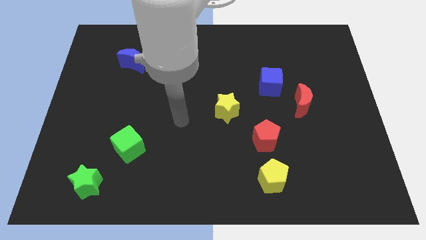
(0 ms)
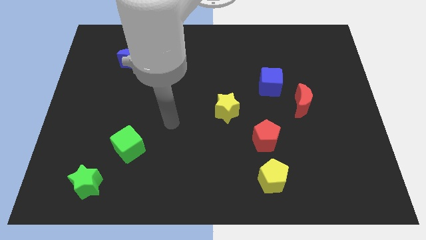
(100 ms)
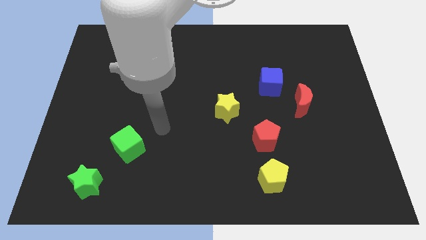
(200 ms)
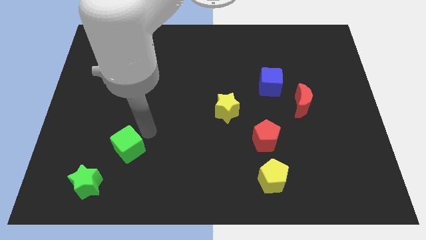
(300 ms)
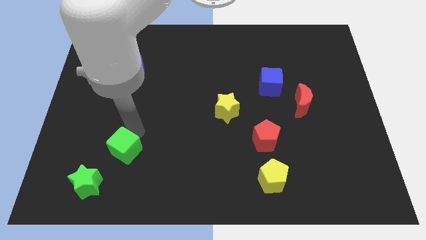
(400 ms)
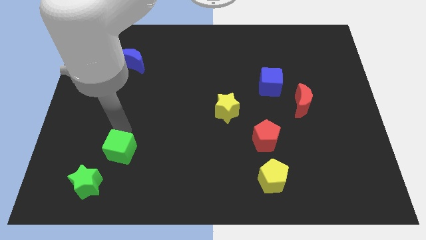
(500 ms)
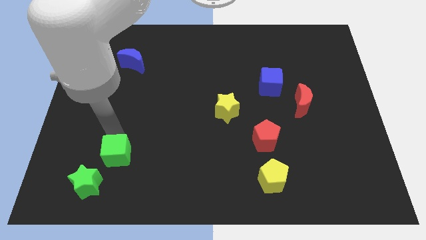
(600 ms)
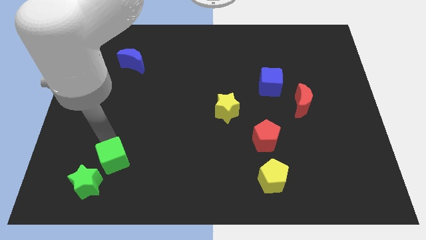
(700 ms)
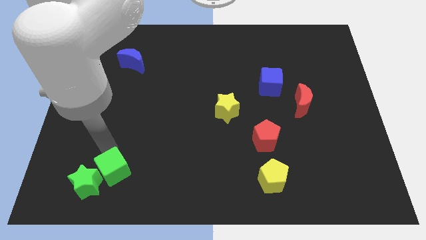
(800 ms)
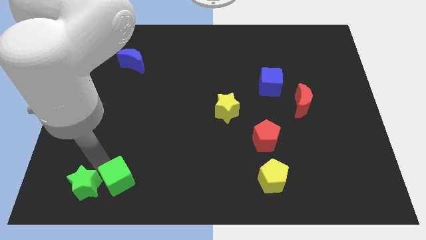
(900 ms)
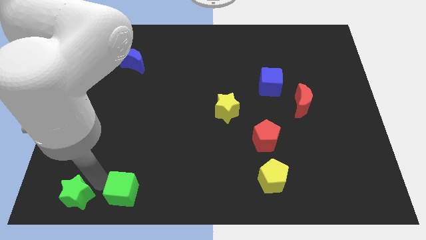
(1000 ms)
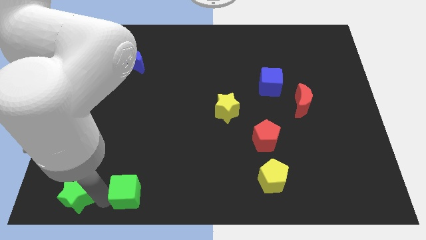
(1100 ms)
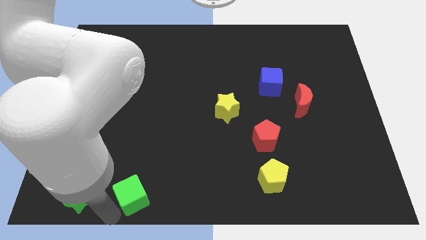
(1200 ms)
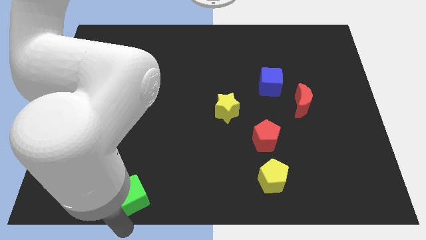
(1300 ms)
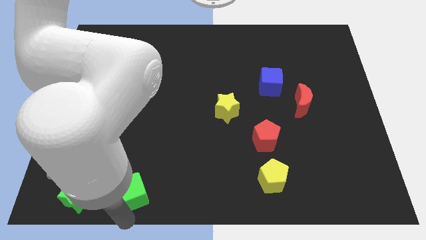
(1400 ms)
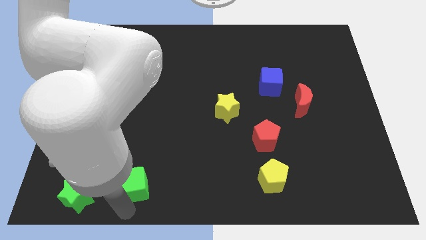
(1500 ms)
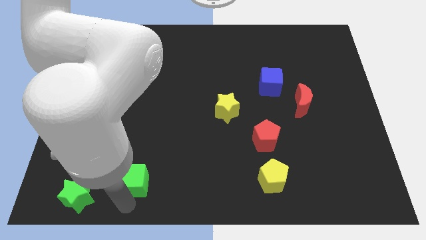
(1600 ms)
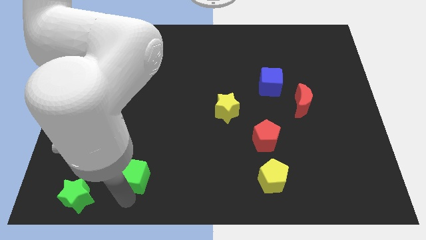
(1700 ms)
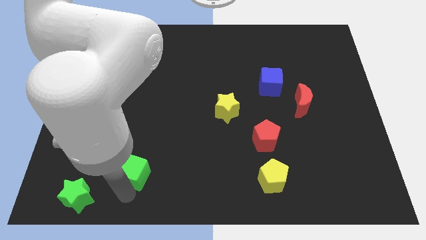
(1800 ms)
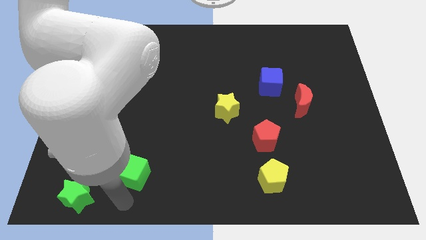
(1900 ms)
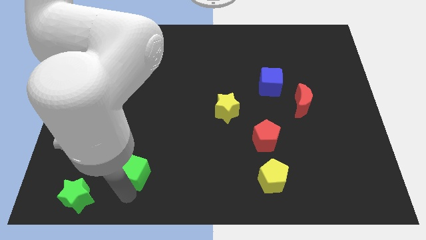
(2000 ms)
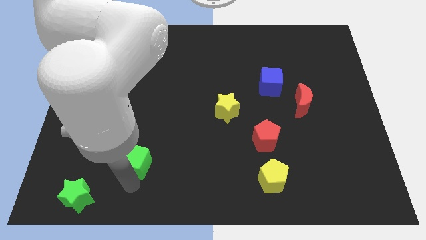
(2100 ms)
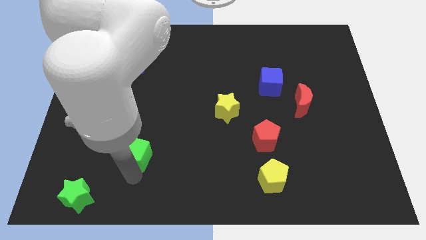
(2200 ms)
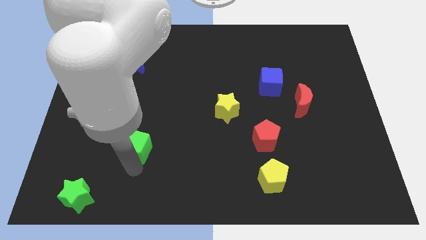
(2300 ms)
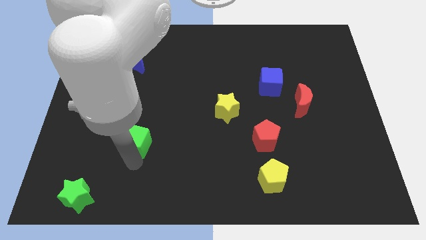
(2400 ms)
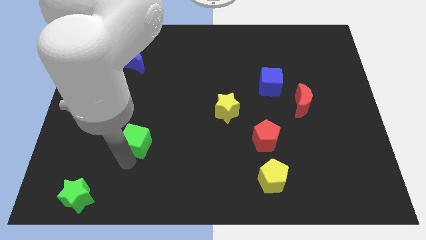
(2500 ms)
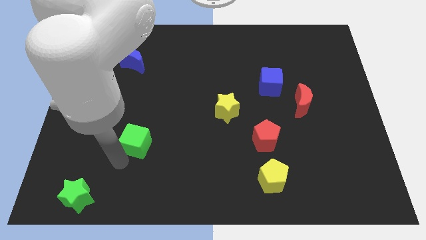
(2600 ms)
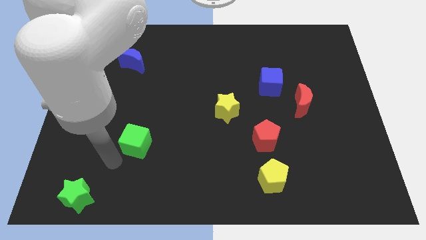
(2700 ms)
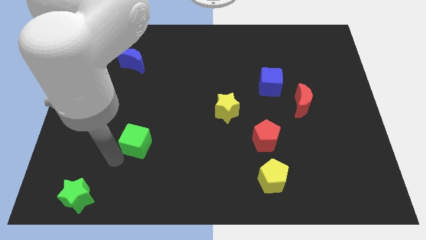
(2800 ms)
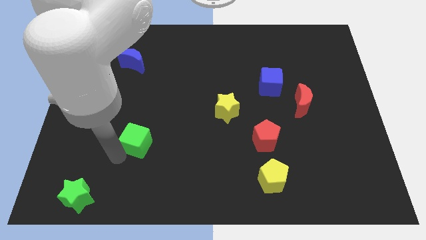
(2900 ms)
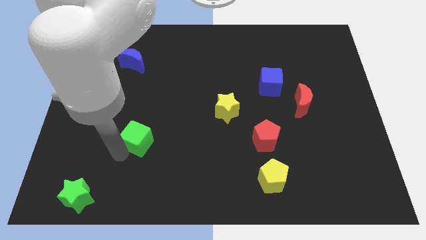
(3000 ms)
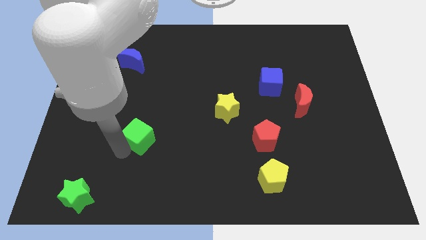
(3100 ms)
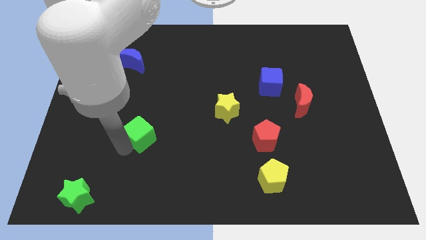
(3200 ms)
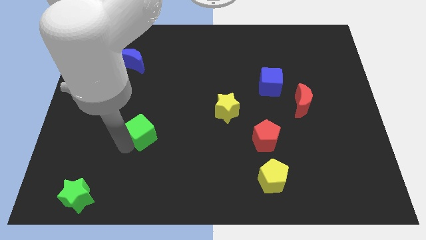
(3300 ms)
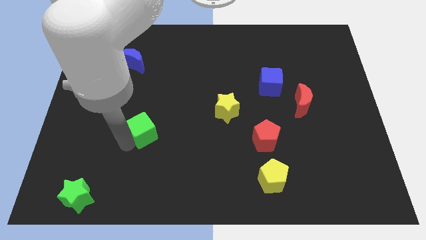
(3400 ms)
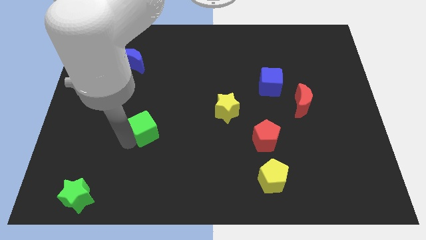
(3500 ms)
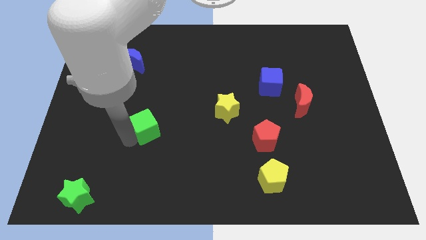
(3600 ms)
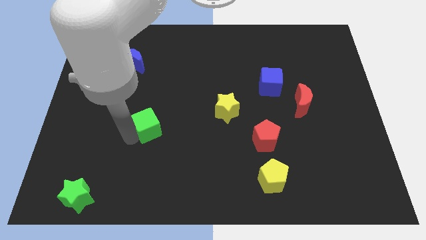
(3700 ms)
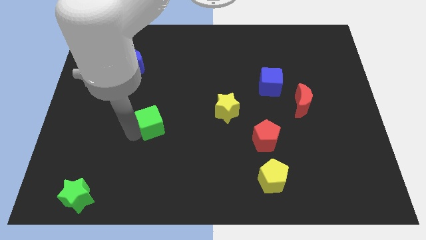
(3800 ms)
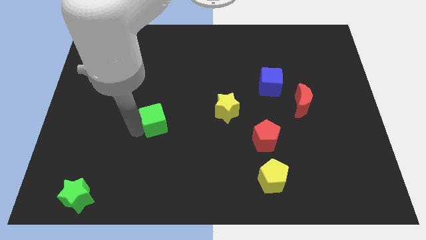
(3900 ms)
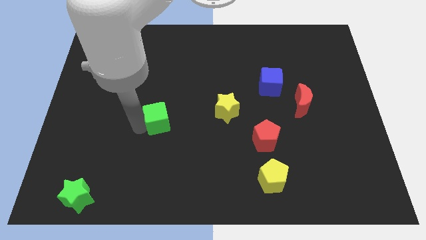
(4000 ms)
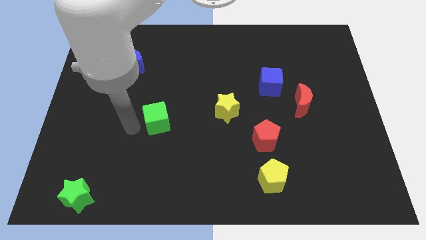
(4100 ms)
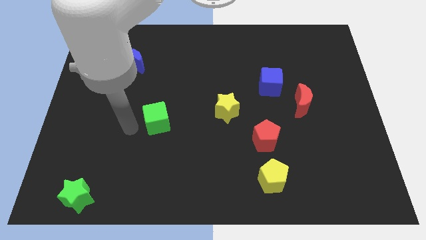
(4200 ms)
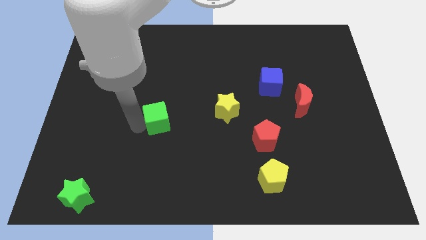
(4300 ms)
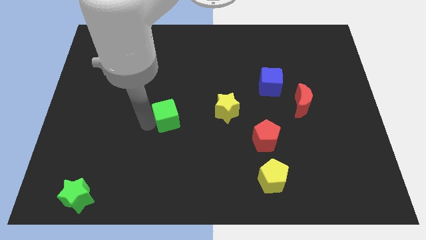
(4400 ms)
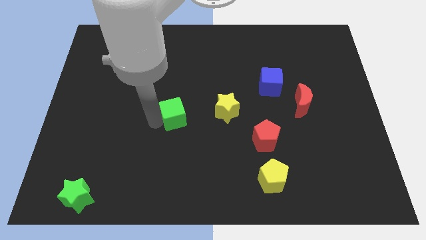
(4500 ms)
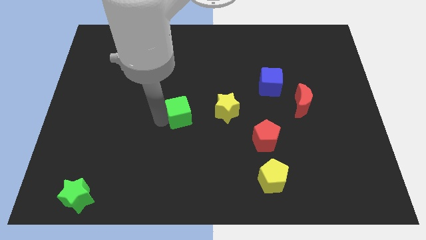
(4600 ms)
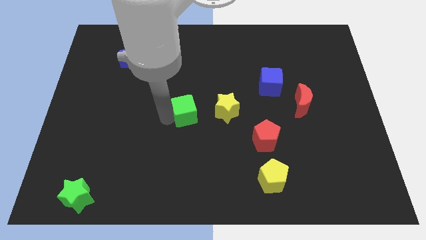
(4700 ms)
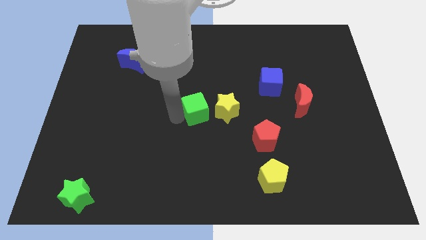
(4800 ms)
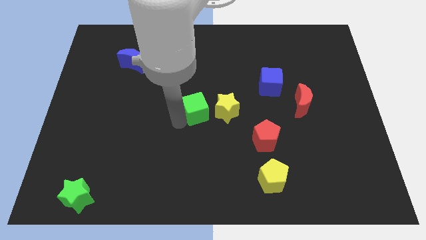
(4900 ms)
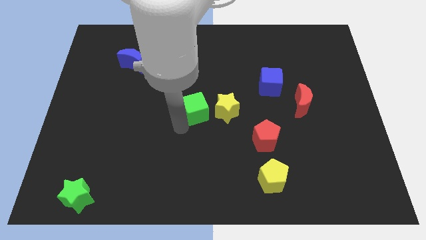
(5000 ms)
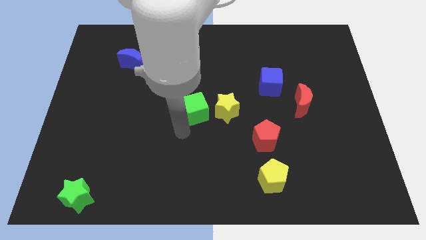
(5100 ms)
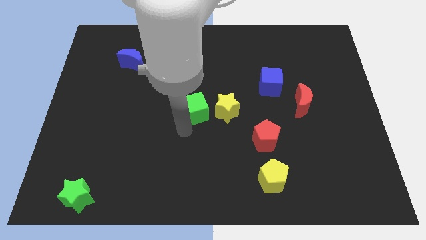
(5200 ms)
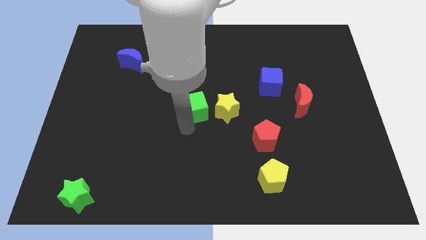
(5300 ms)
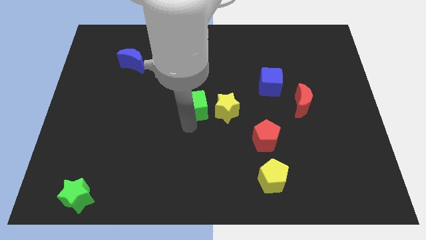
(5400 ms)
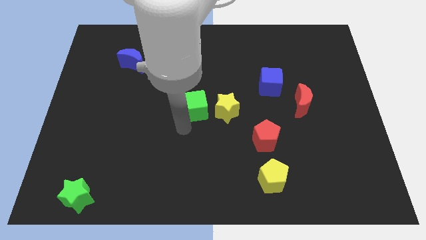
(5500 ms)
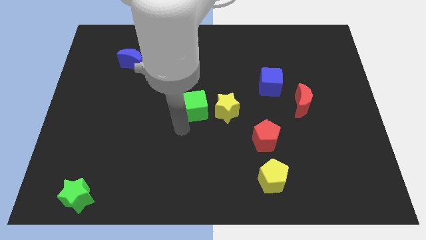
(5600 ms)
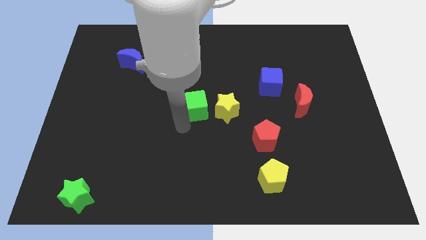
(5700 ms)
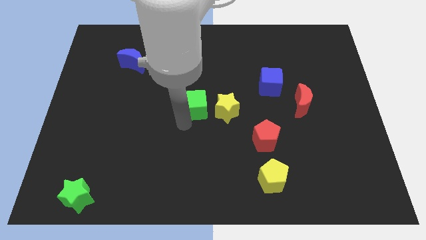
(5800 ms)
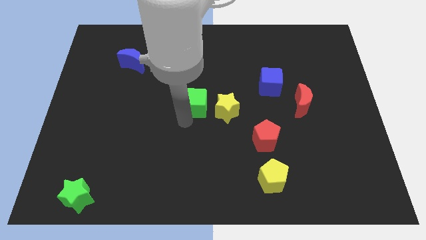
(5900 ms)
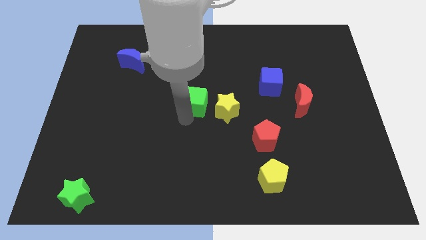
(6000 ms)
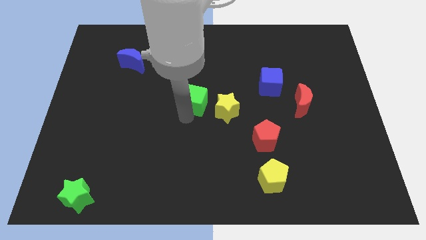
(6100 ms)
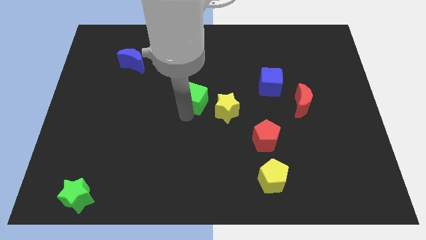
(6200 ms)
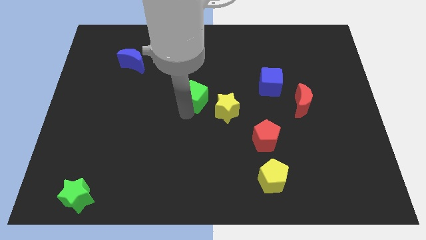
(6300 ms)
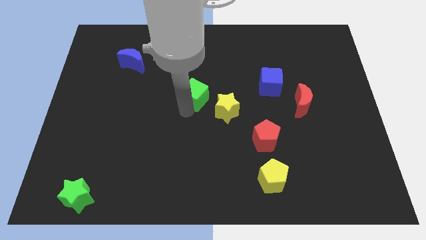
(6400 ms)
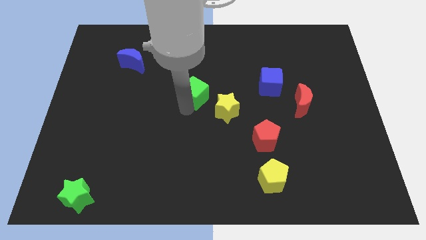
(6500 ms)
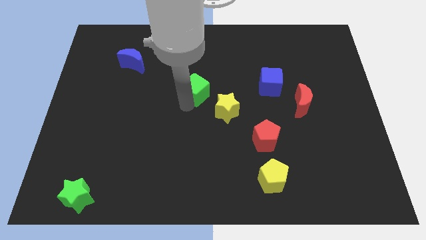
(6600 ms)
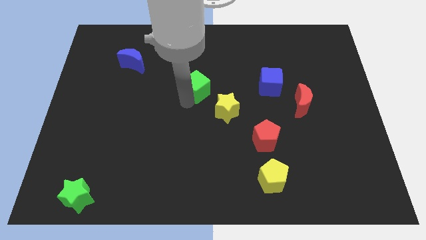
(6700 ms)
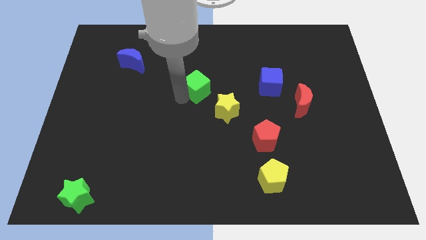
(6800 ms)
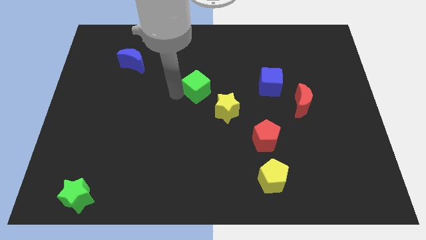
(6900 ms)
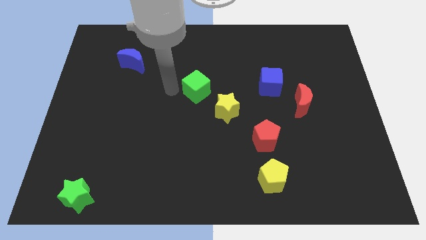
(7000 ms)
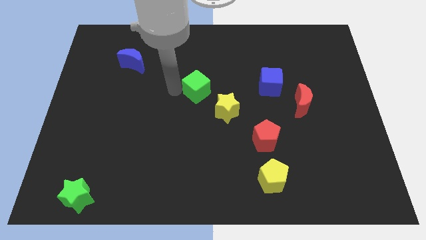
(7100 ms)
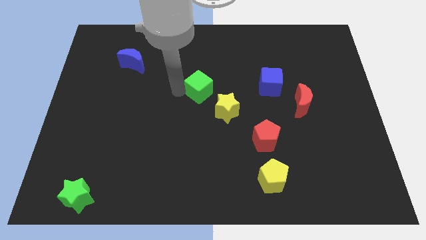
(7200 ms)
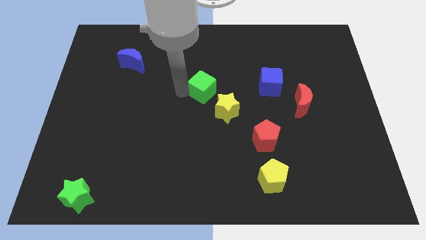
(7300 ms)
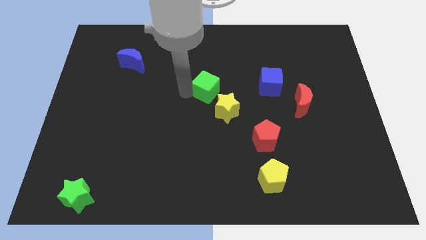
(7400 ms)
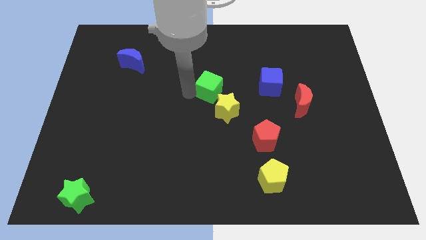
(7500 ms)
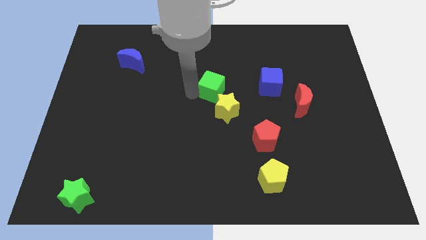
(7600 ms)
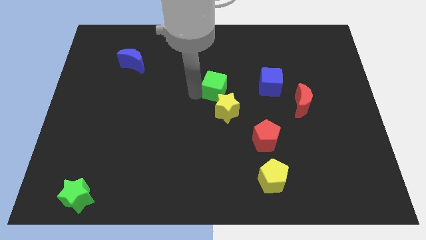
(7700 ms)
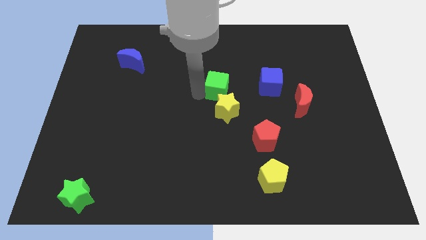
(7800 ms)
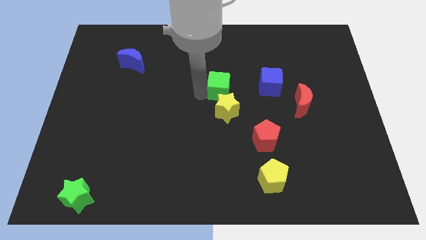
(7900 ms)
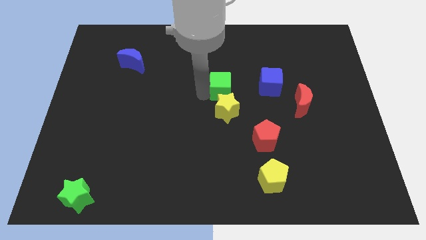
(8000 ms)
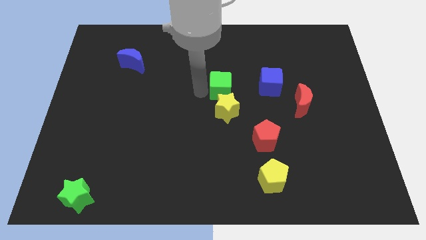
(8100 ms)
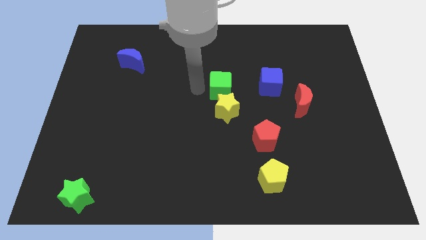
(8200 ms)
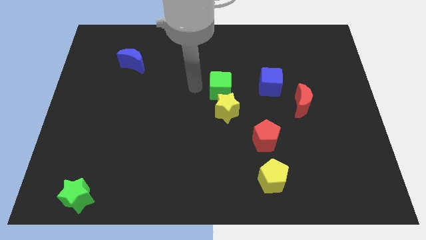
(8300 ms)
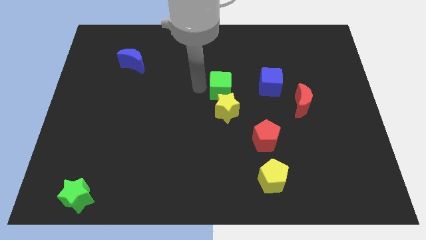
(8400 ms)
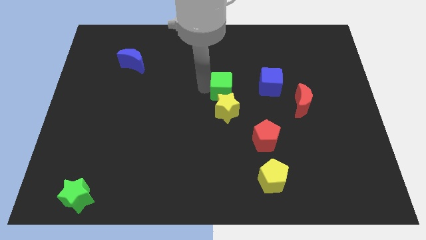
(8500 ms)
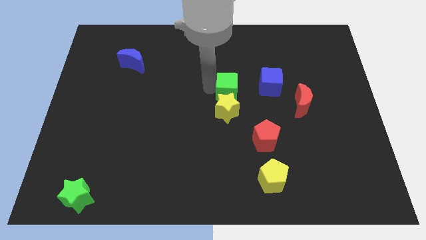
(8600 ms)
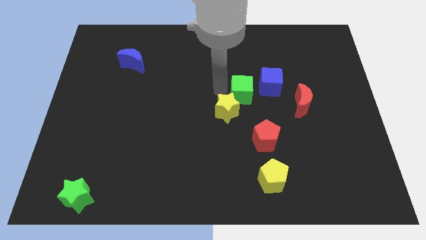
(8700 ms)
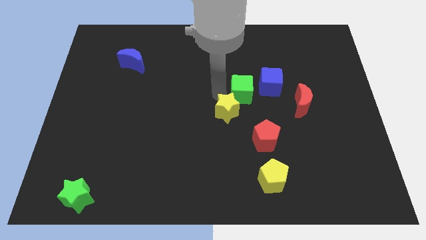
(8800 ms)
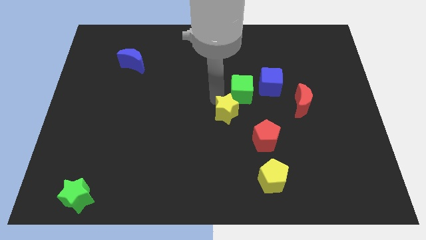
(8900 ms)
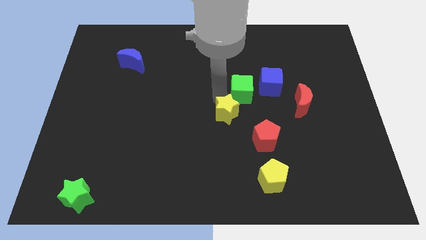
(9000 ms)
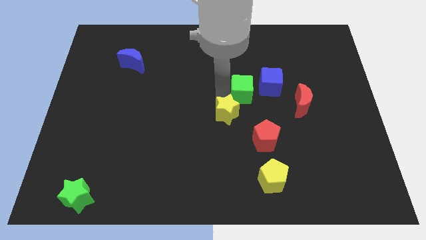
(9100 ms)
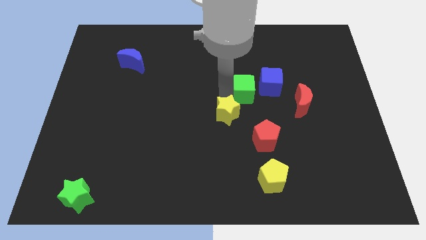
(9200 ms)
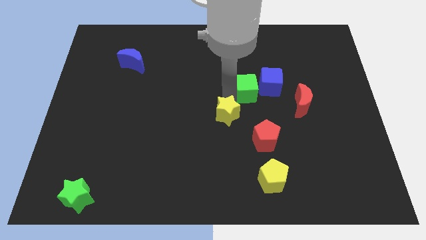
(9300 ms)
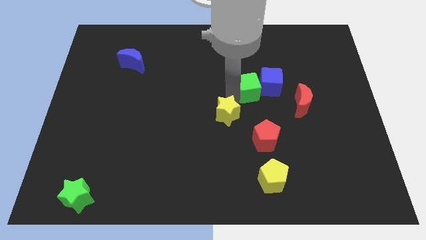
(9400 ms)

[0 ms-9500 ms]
slide the green cube close to the blue cube
